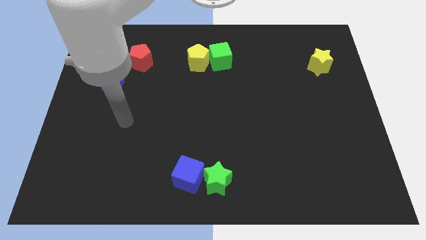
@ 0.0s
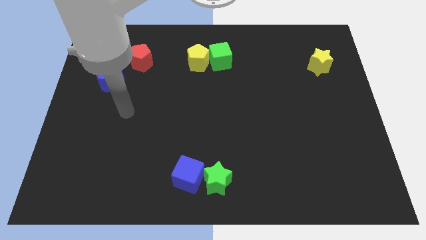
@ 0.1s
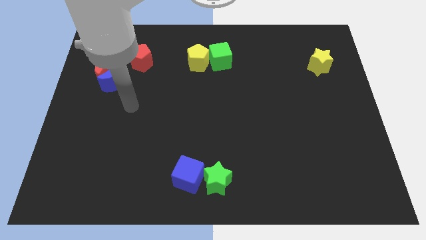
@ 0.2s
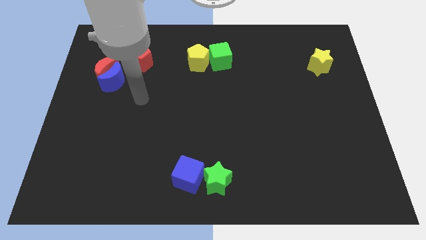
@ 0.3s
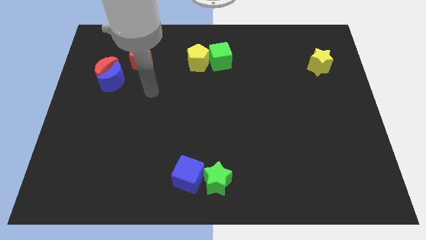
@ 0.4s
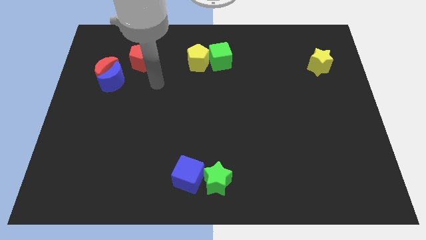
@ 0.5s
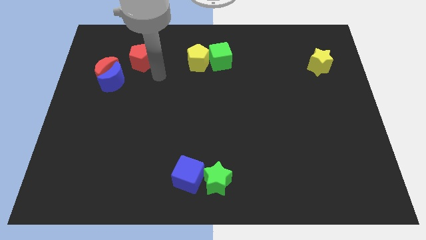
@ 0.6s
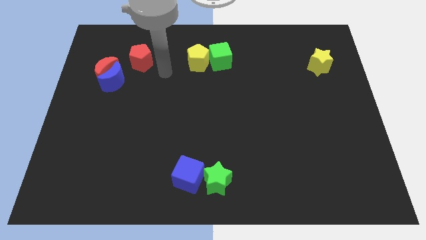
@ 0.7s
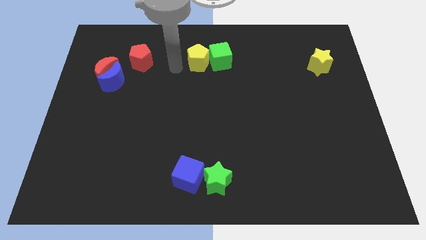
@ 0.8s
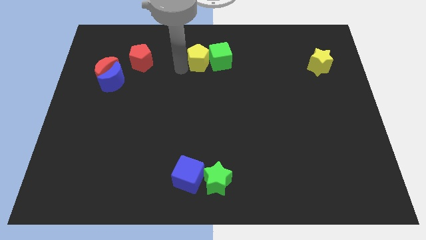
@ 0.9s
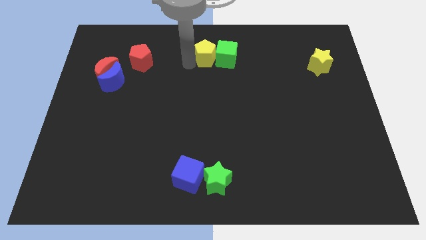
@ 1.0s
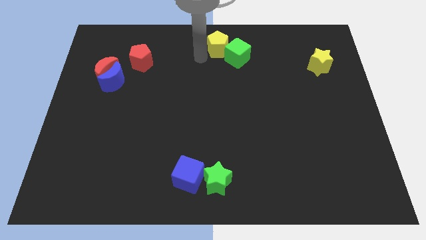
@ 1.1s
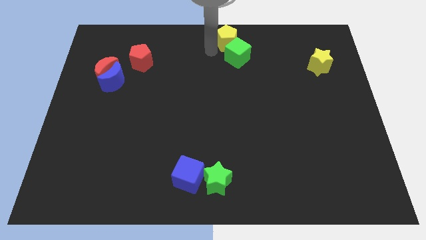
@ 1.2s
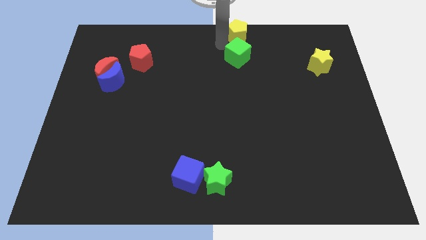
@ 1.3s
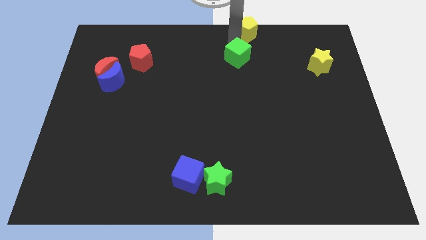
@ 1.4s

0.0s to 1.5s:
separate the green cube from the yellow pentagon

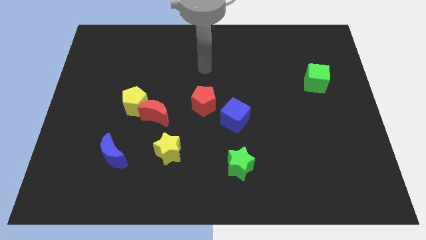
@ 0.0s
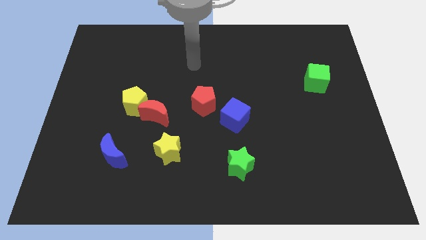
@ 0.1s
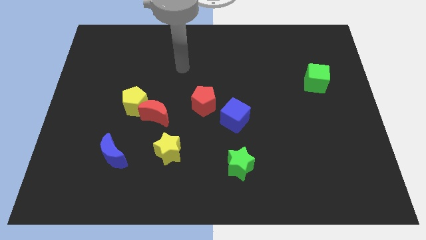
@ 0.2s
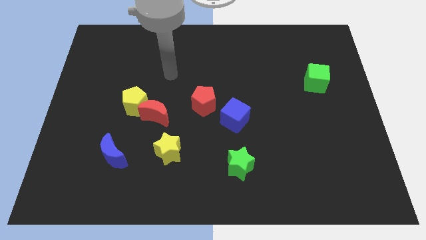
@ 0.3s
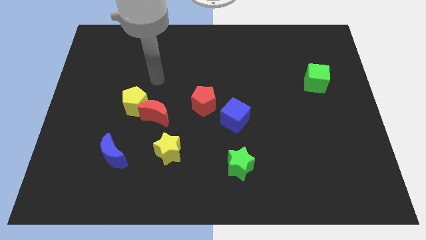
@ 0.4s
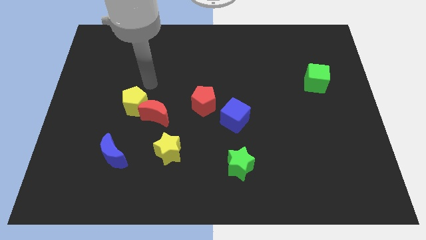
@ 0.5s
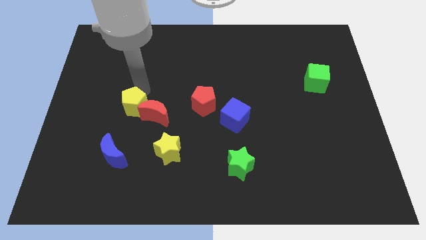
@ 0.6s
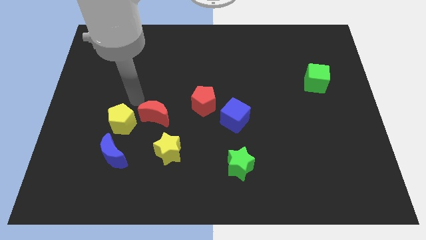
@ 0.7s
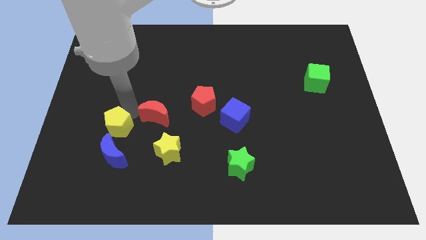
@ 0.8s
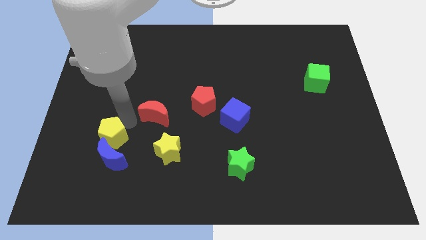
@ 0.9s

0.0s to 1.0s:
move the red moon away from the yellow pentagon

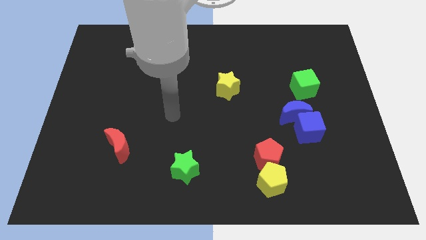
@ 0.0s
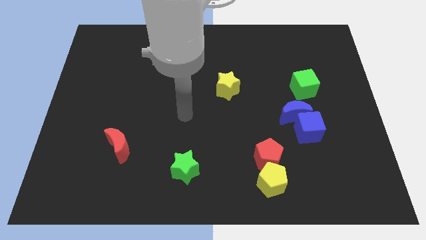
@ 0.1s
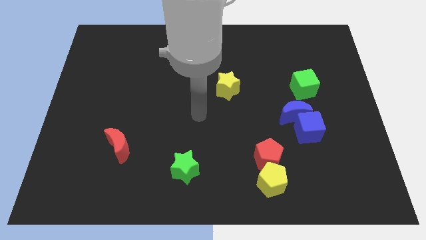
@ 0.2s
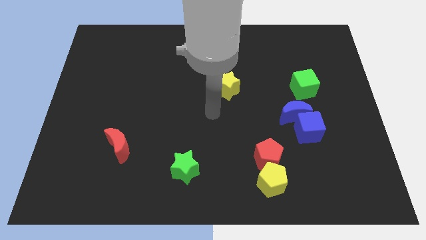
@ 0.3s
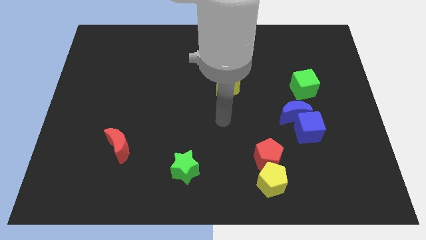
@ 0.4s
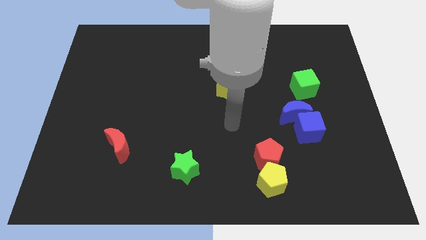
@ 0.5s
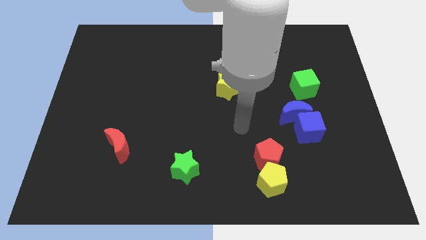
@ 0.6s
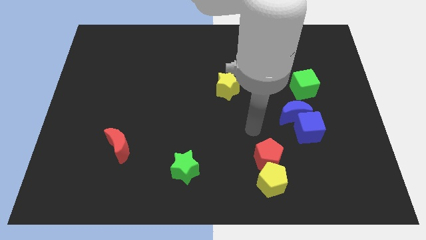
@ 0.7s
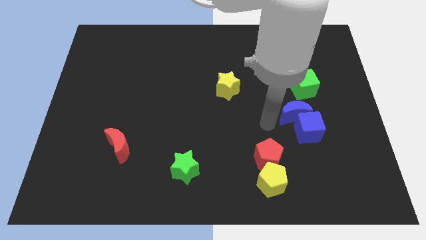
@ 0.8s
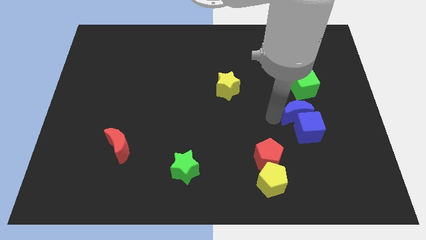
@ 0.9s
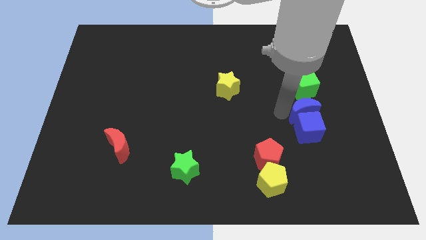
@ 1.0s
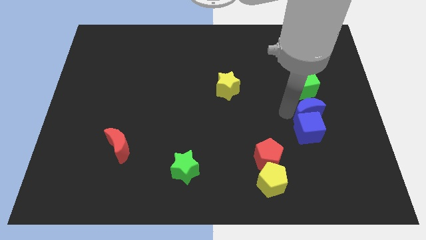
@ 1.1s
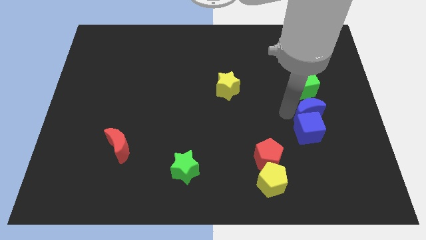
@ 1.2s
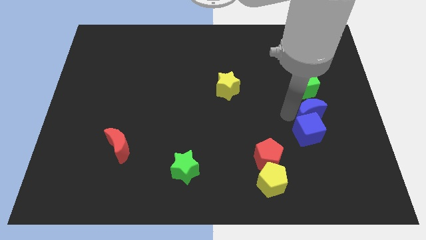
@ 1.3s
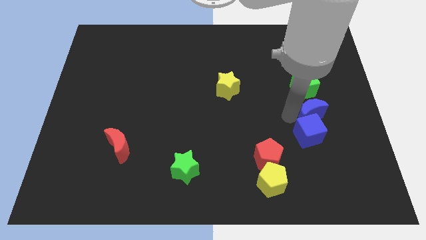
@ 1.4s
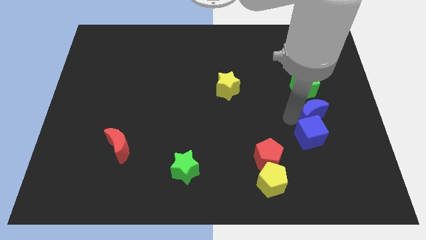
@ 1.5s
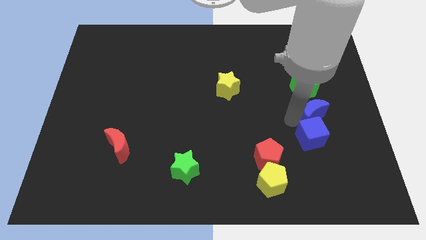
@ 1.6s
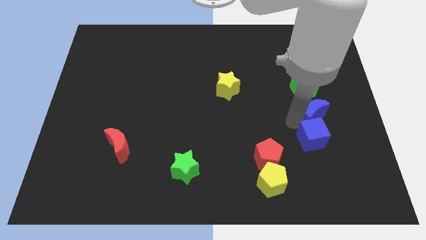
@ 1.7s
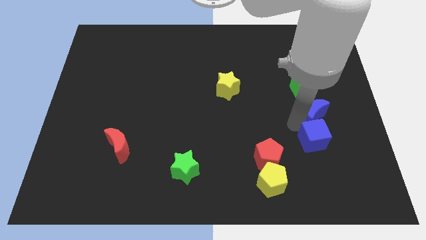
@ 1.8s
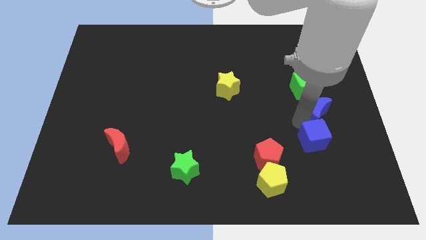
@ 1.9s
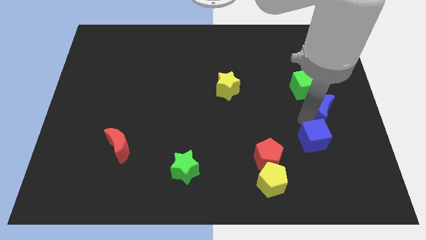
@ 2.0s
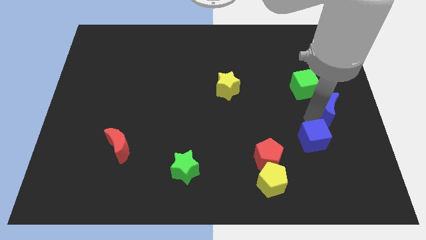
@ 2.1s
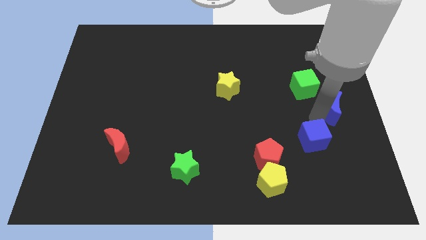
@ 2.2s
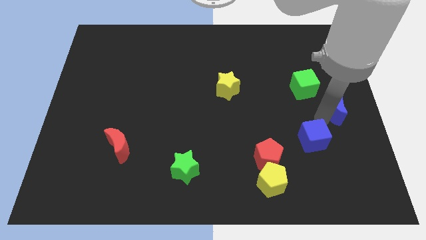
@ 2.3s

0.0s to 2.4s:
pull the blue cube apart from the blue moon

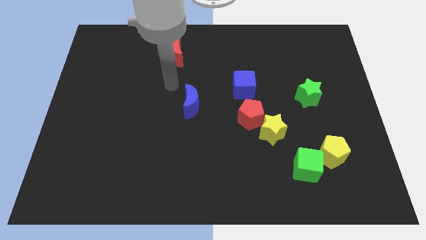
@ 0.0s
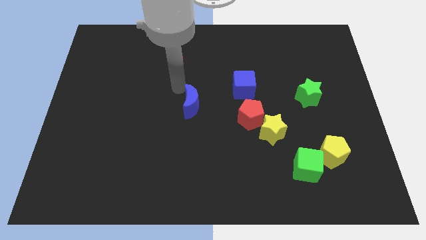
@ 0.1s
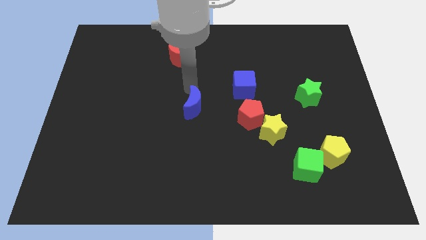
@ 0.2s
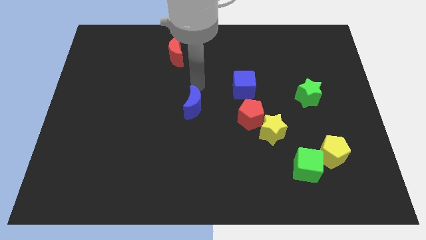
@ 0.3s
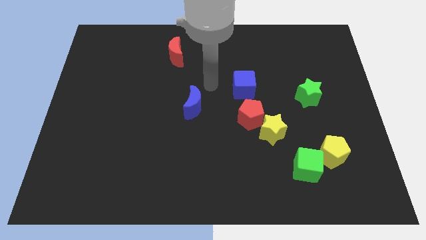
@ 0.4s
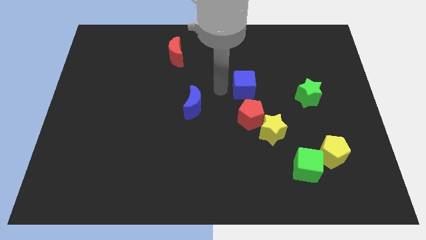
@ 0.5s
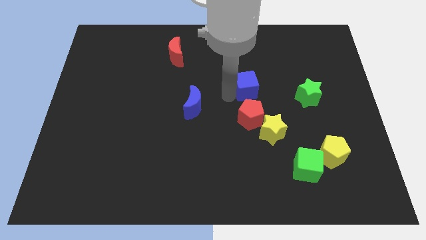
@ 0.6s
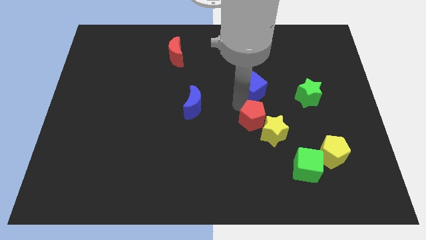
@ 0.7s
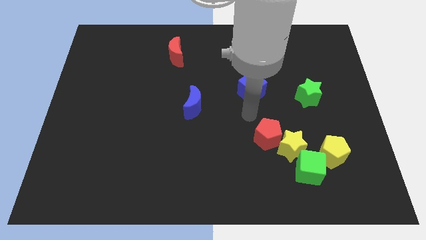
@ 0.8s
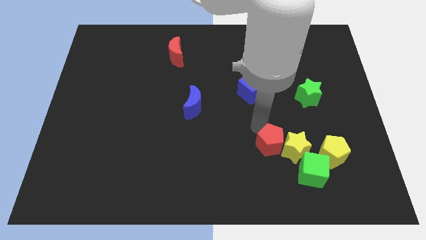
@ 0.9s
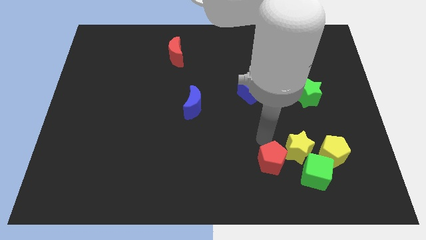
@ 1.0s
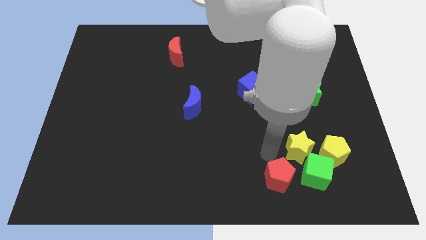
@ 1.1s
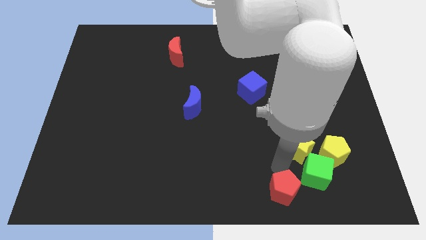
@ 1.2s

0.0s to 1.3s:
move the yellow star away from the red pentagon

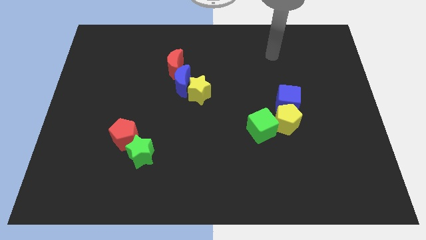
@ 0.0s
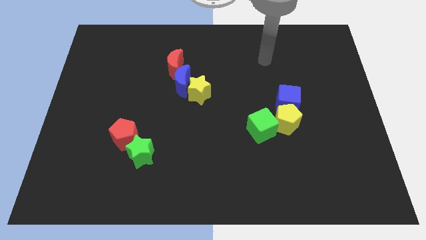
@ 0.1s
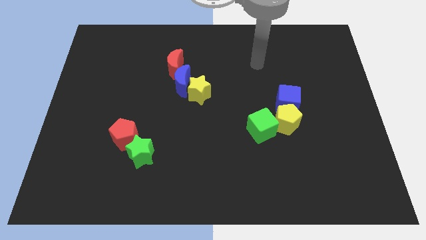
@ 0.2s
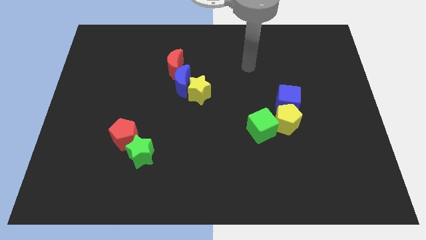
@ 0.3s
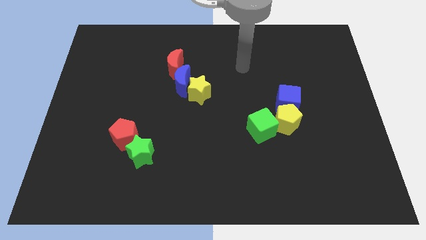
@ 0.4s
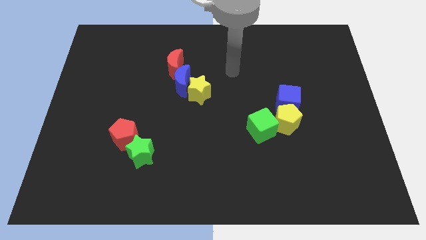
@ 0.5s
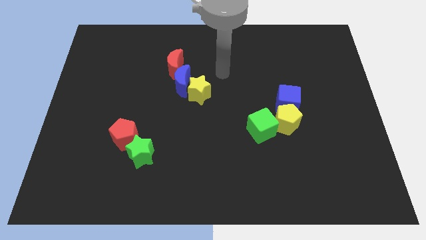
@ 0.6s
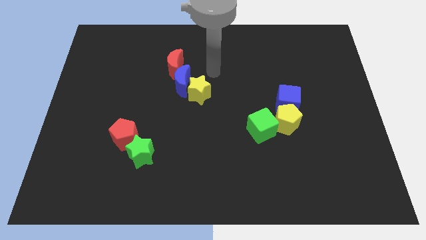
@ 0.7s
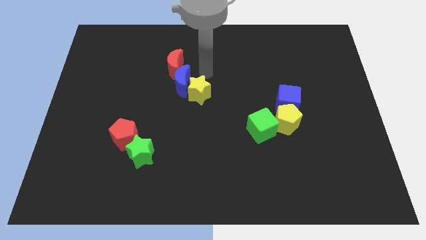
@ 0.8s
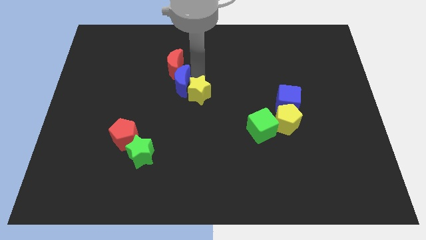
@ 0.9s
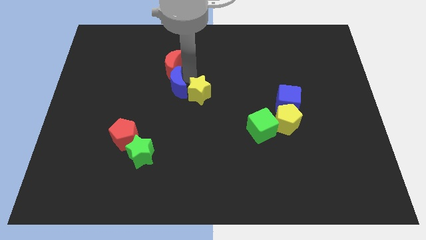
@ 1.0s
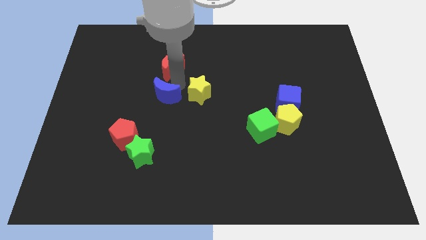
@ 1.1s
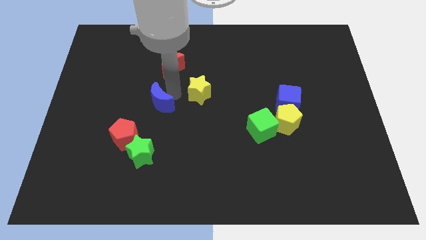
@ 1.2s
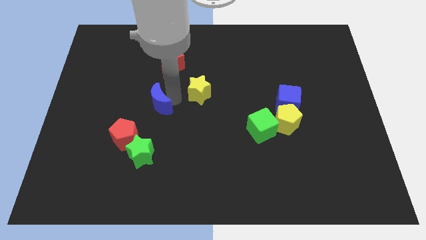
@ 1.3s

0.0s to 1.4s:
pull the yellow star apart from the blue moon

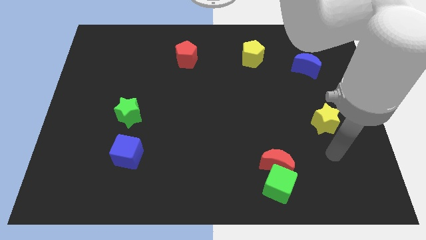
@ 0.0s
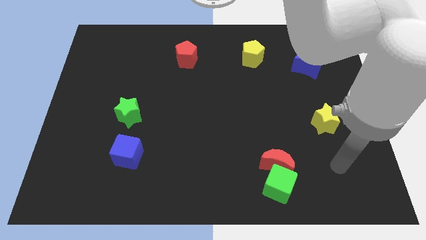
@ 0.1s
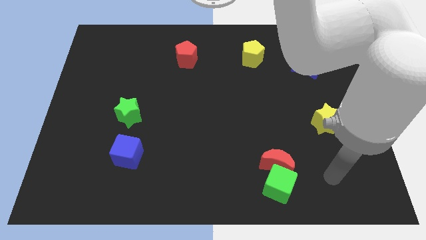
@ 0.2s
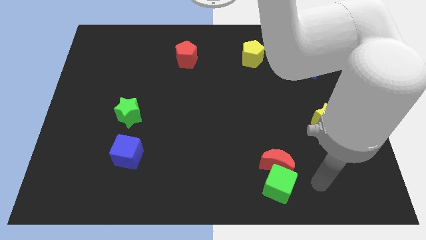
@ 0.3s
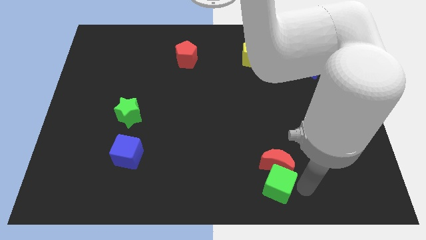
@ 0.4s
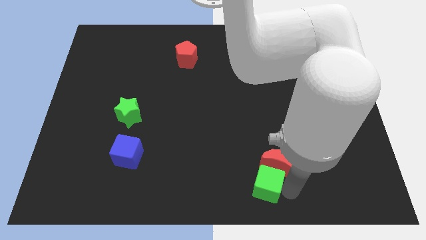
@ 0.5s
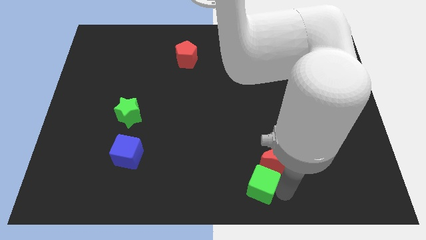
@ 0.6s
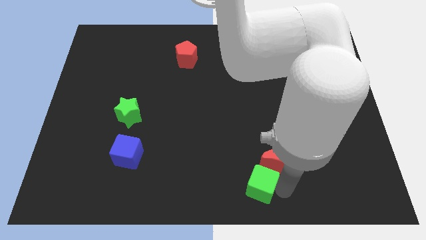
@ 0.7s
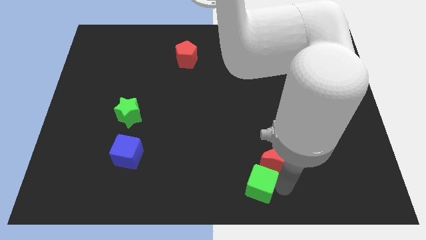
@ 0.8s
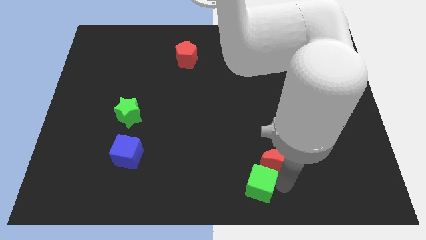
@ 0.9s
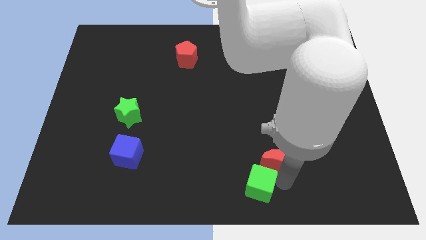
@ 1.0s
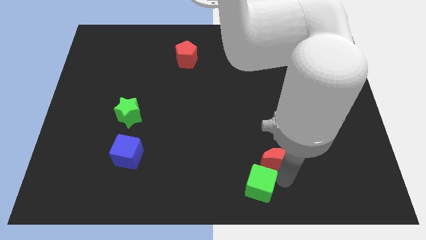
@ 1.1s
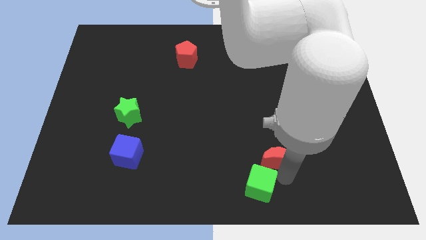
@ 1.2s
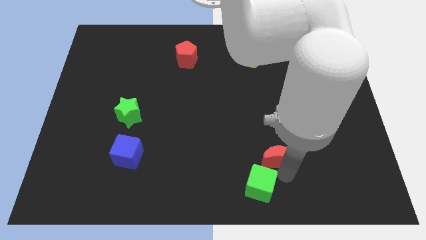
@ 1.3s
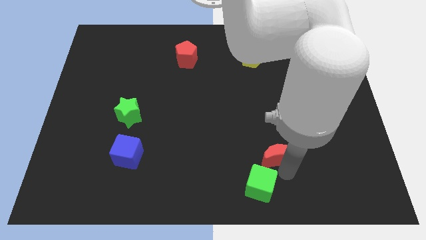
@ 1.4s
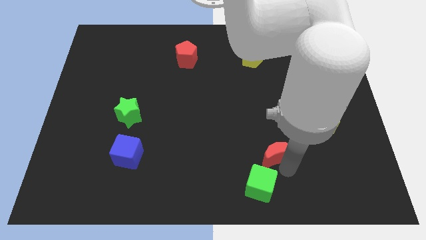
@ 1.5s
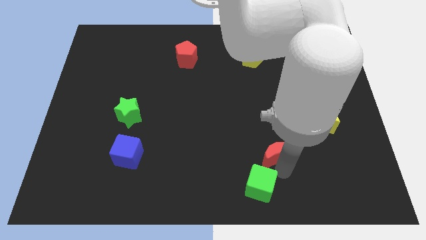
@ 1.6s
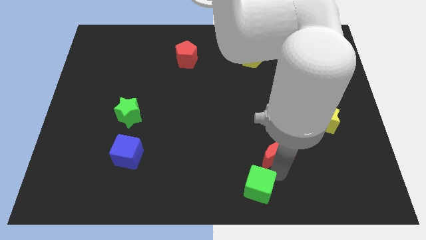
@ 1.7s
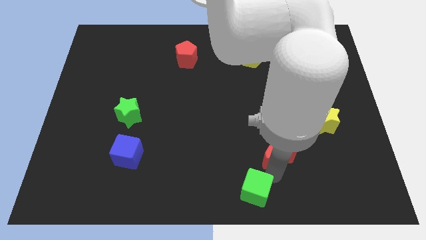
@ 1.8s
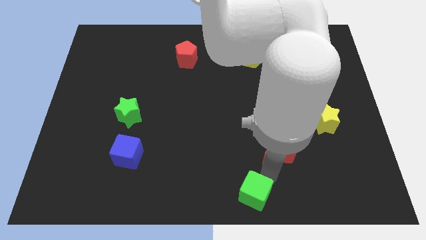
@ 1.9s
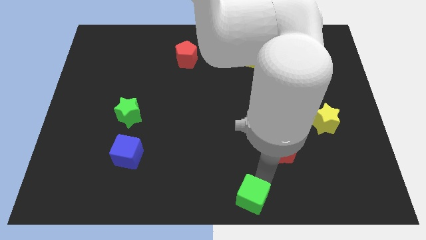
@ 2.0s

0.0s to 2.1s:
separate the red moon from the green cube
